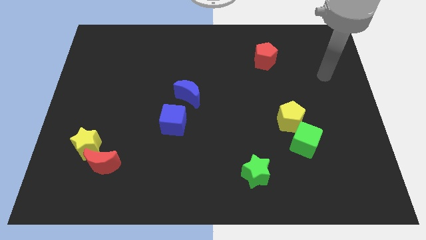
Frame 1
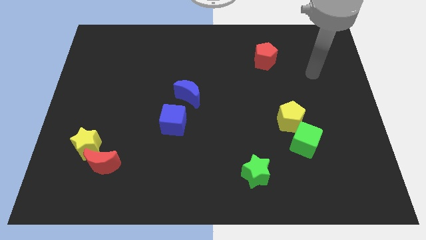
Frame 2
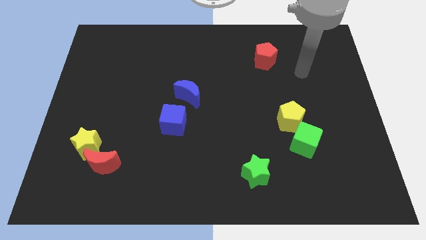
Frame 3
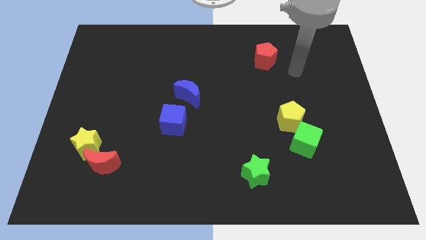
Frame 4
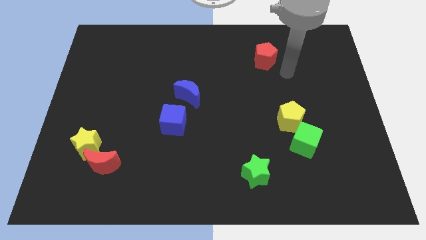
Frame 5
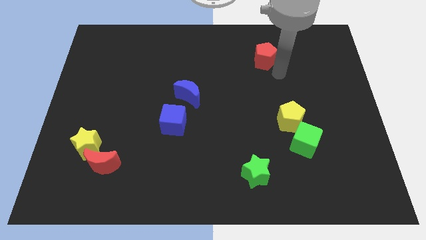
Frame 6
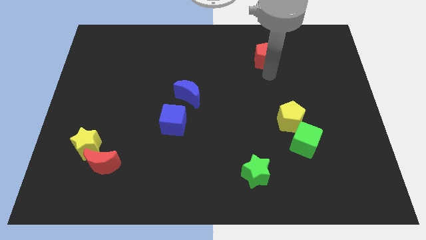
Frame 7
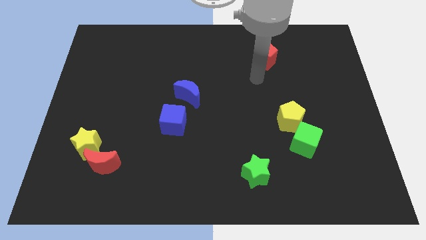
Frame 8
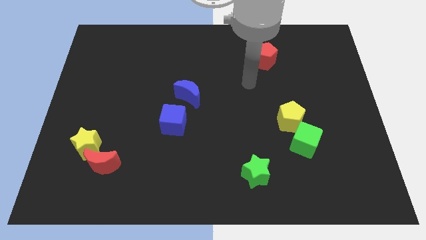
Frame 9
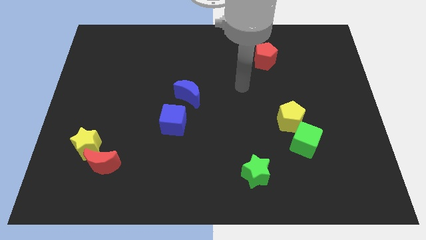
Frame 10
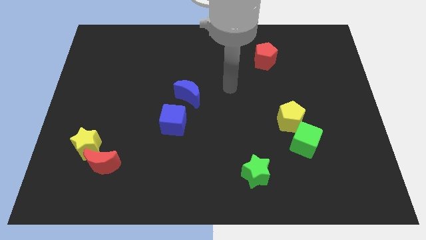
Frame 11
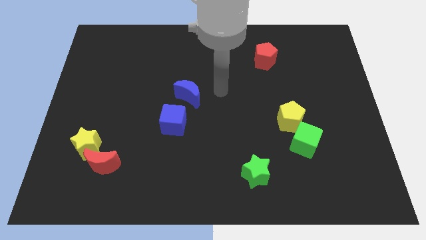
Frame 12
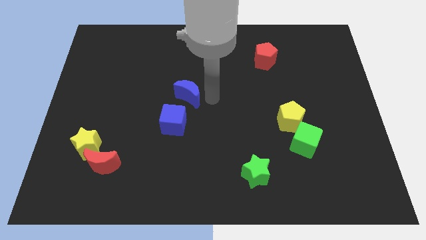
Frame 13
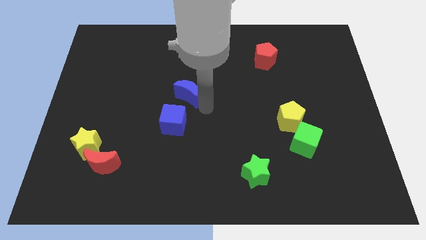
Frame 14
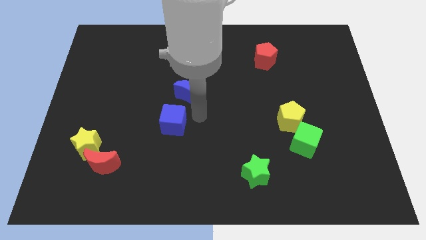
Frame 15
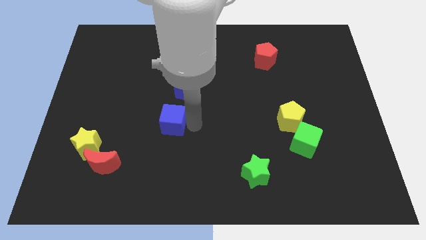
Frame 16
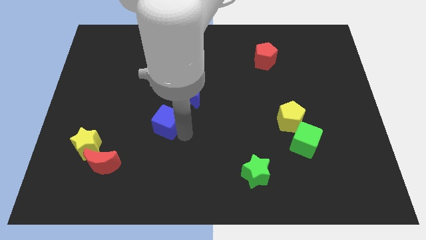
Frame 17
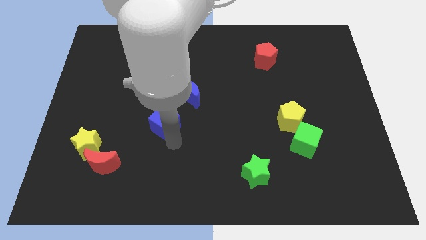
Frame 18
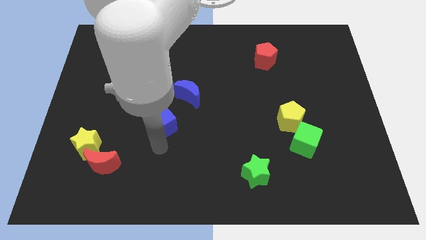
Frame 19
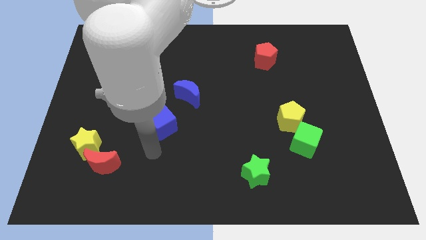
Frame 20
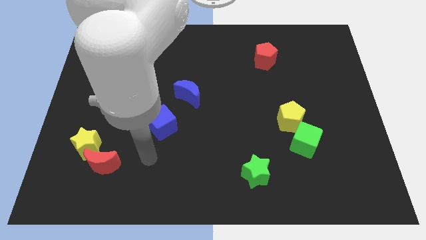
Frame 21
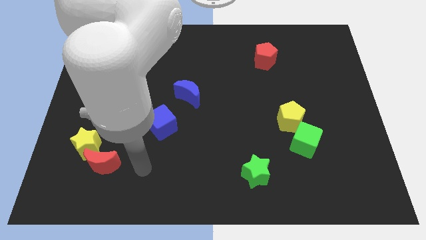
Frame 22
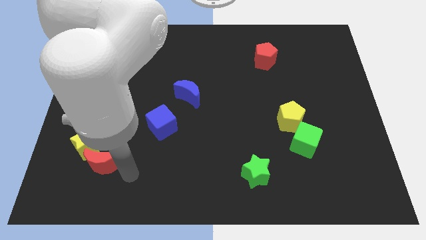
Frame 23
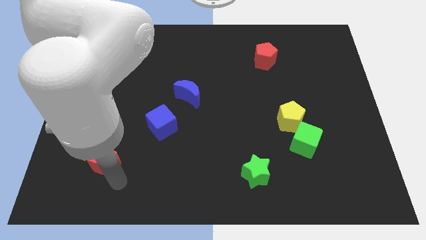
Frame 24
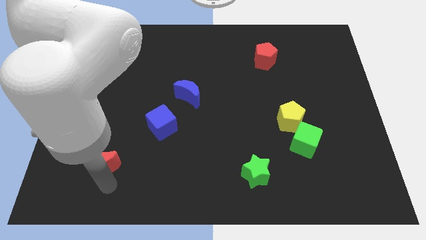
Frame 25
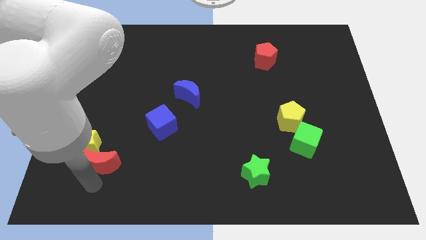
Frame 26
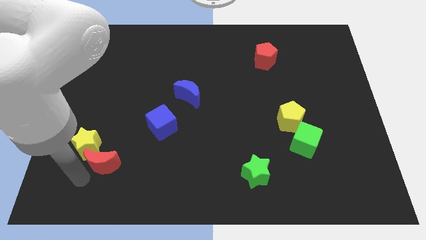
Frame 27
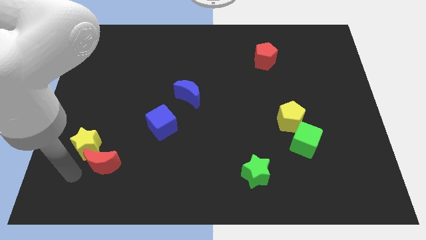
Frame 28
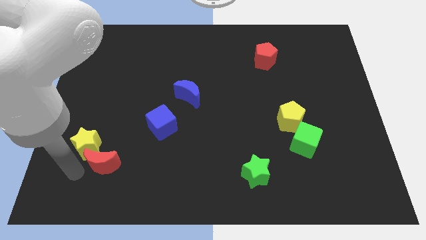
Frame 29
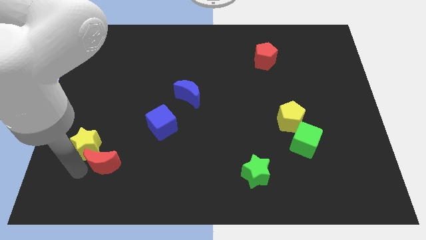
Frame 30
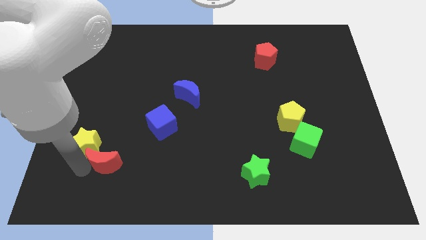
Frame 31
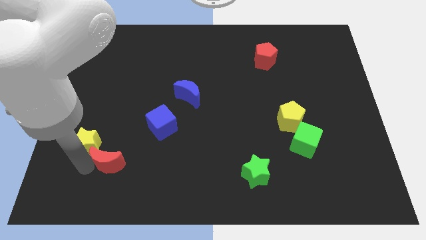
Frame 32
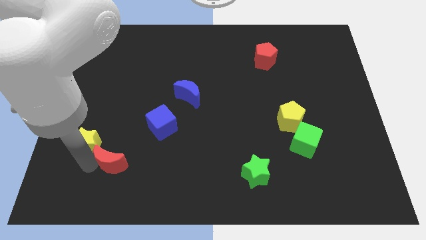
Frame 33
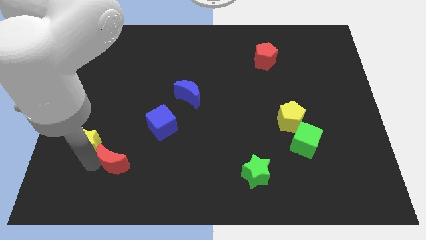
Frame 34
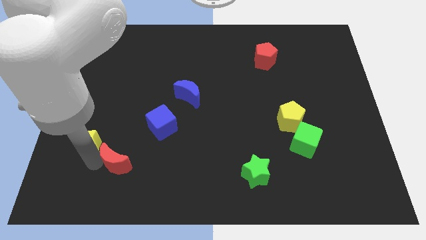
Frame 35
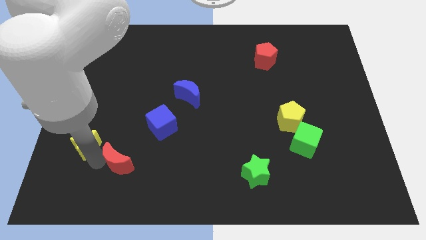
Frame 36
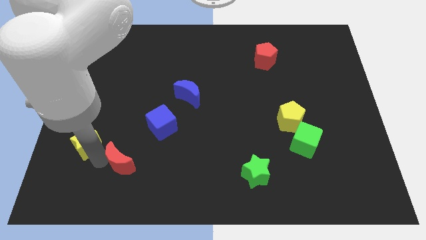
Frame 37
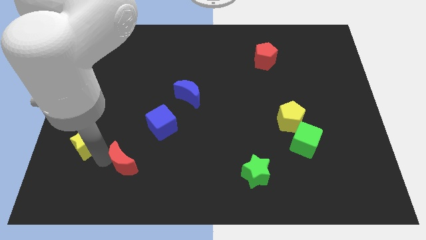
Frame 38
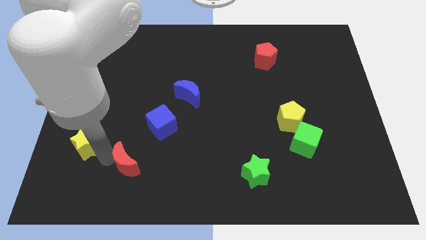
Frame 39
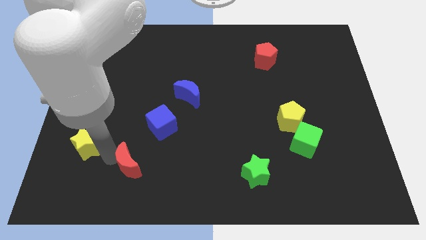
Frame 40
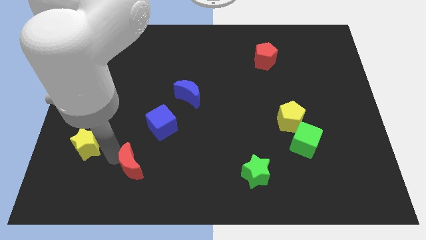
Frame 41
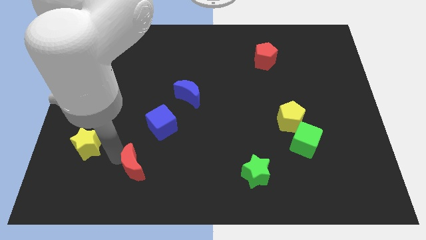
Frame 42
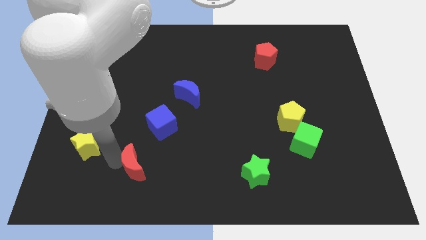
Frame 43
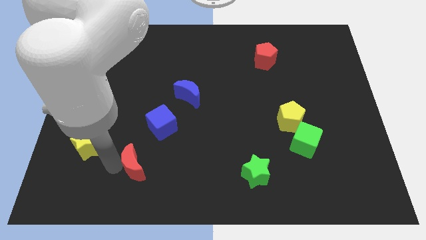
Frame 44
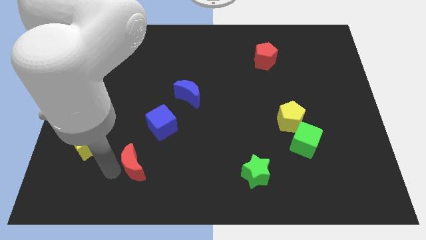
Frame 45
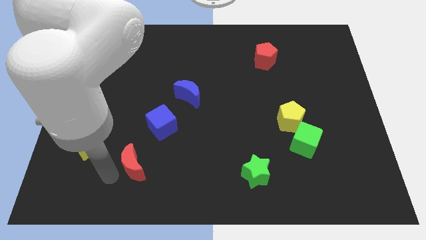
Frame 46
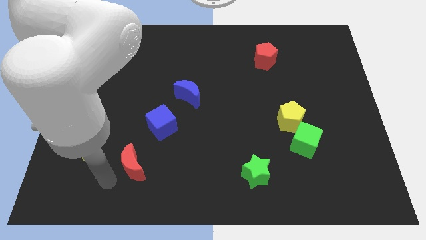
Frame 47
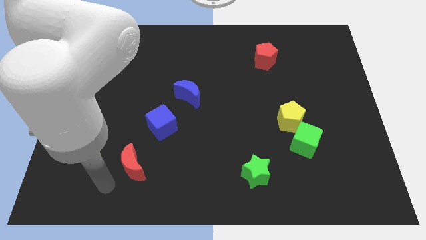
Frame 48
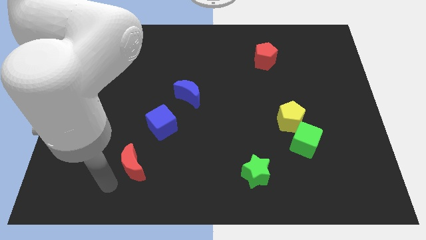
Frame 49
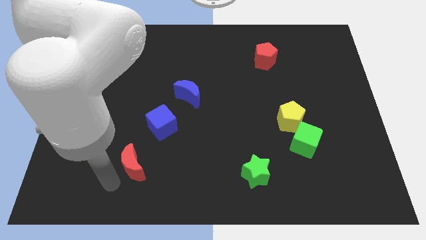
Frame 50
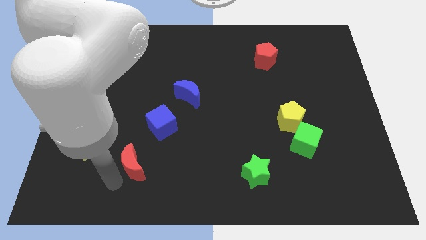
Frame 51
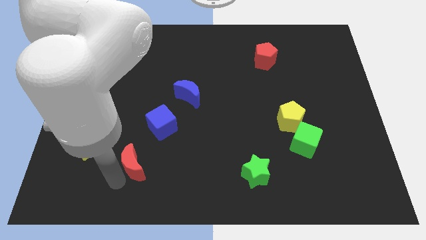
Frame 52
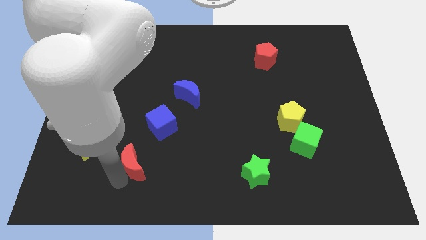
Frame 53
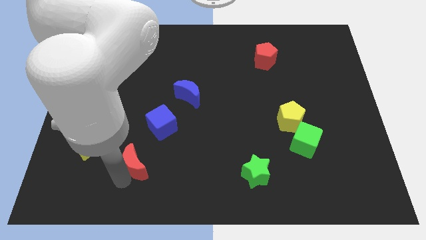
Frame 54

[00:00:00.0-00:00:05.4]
slightly move the red moon right

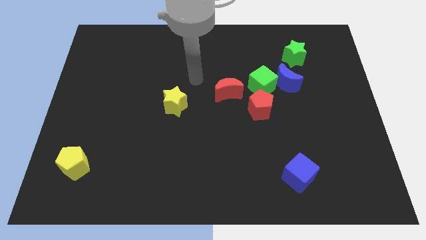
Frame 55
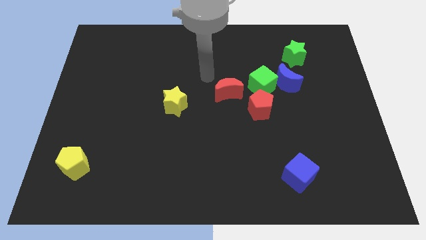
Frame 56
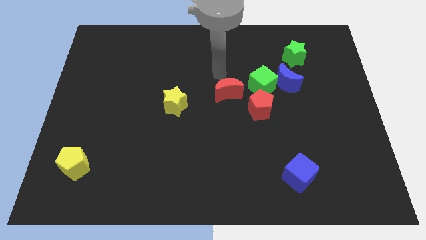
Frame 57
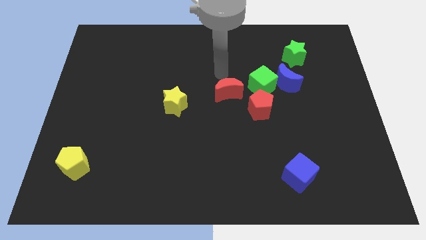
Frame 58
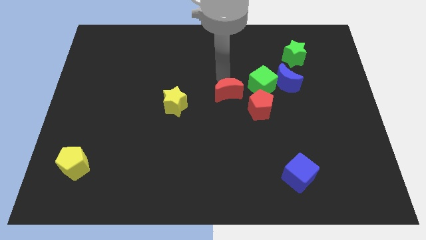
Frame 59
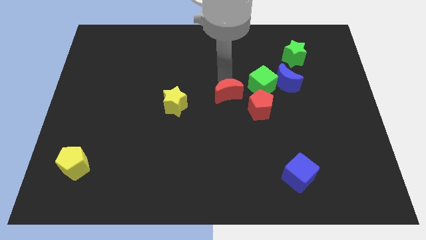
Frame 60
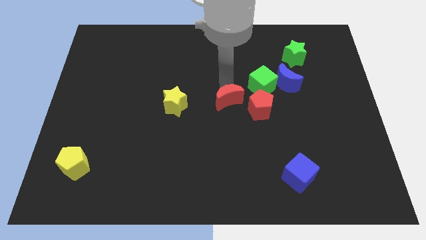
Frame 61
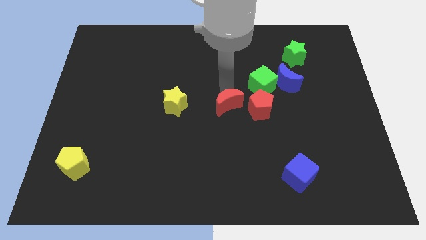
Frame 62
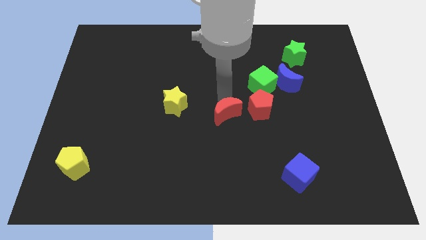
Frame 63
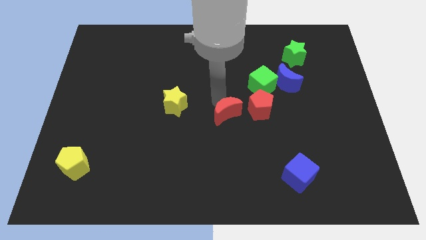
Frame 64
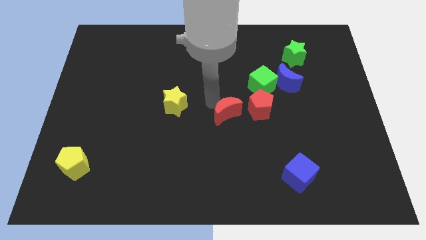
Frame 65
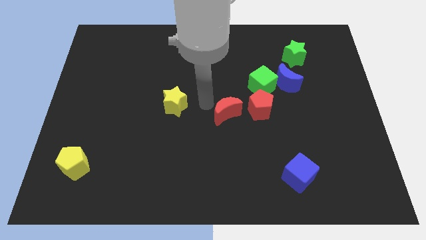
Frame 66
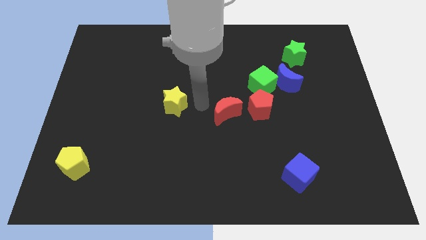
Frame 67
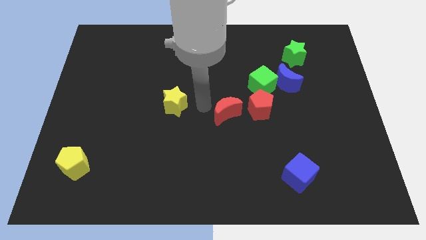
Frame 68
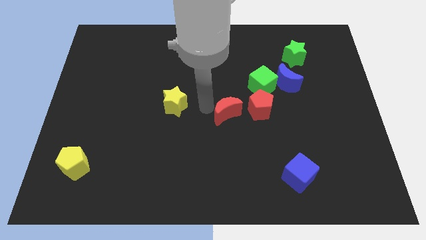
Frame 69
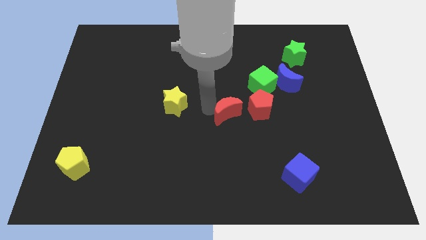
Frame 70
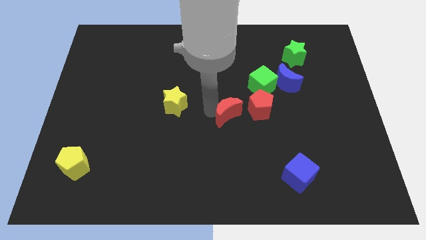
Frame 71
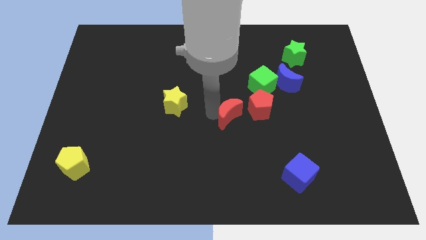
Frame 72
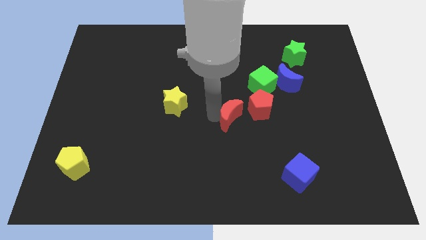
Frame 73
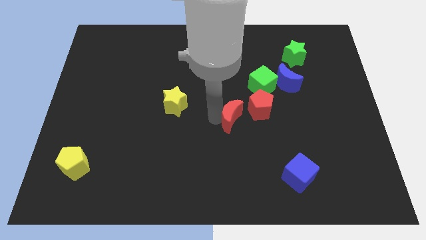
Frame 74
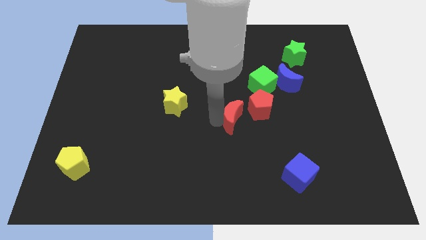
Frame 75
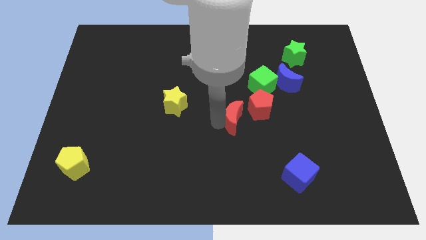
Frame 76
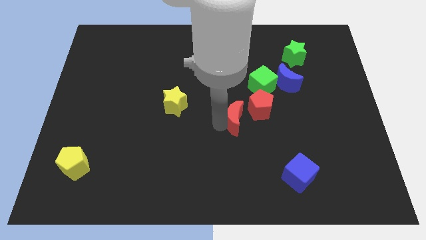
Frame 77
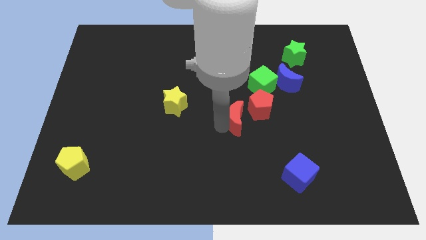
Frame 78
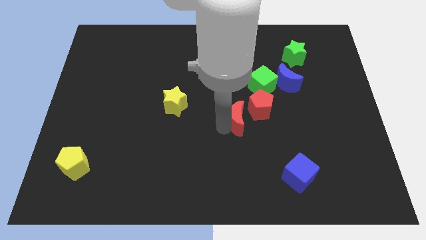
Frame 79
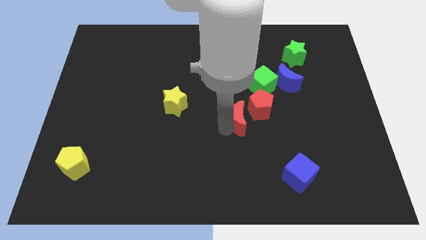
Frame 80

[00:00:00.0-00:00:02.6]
move the red moon downwards and then to the right a little
